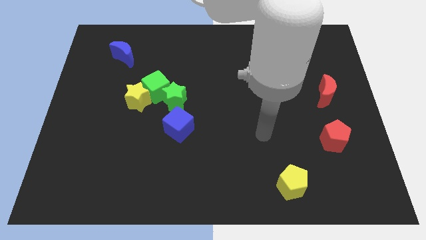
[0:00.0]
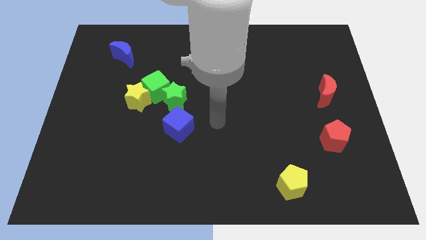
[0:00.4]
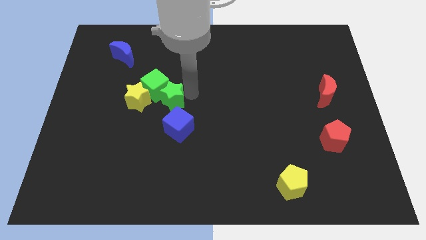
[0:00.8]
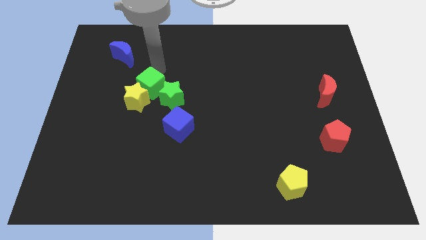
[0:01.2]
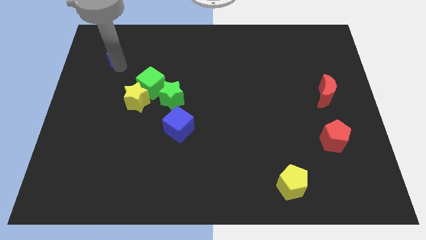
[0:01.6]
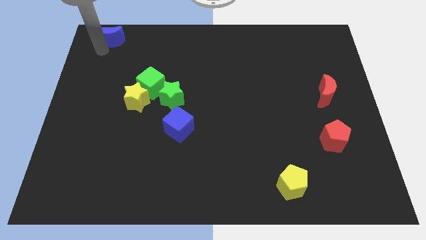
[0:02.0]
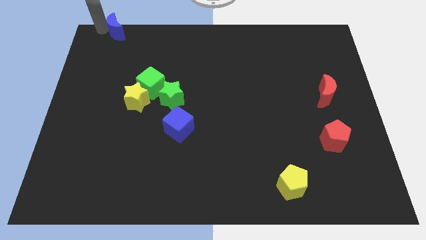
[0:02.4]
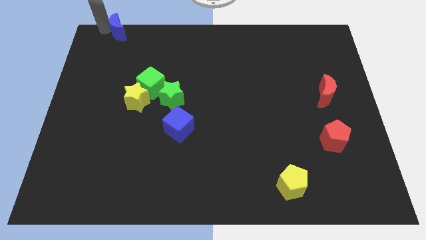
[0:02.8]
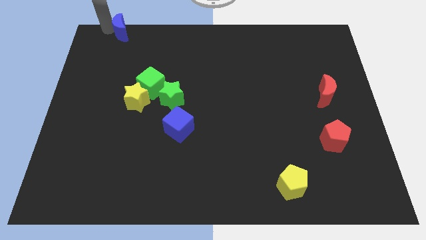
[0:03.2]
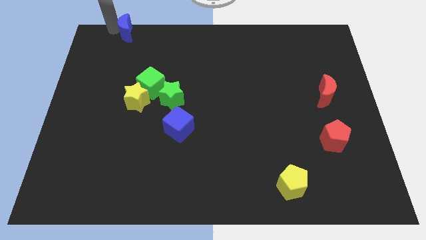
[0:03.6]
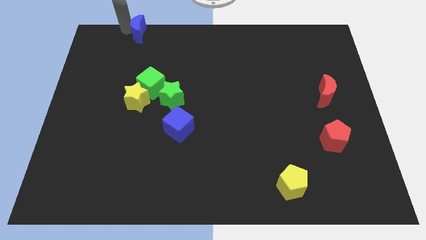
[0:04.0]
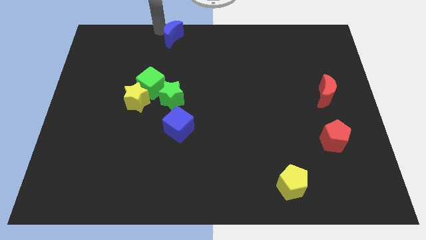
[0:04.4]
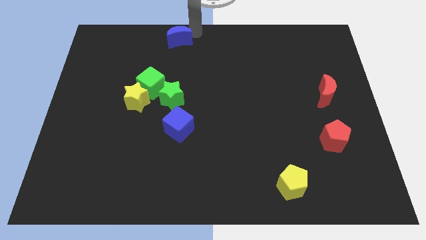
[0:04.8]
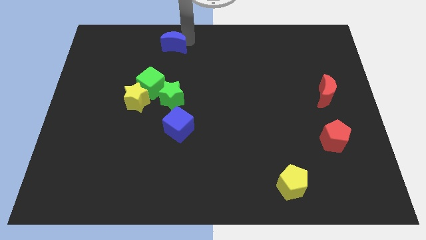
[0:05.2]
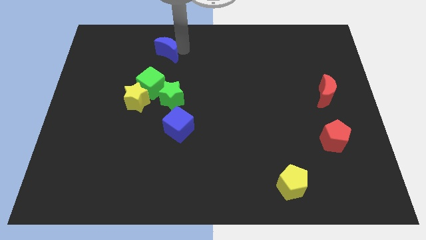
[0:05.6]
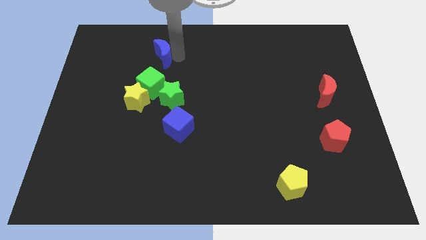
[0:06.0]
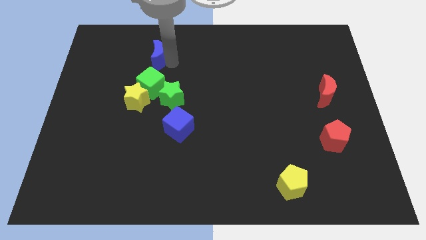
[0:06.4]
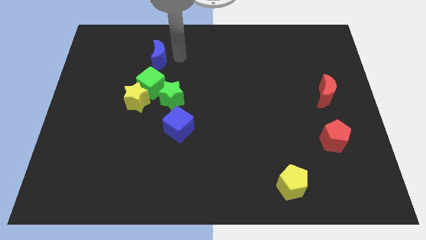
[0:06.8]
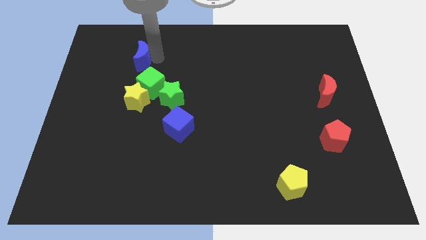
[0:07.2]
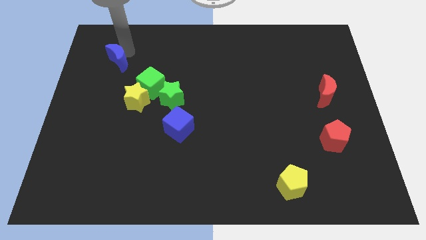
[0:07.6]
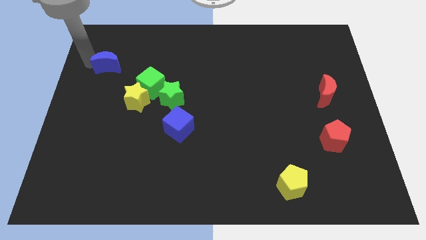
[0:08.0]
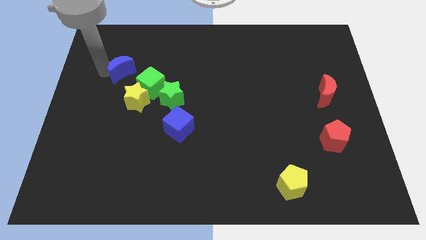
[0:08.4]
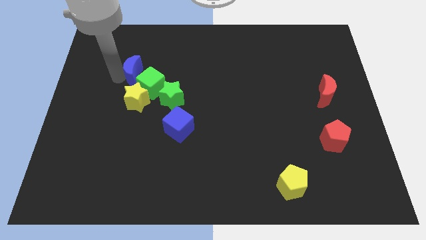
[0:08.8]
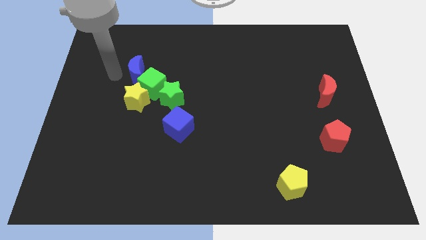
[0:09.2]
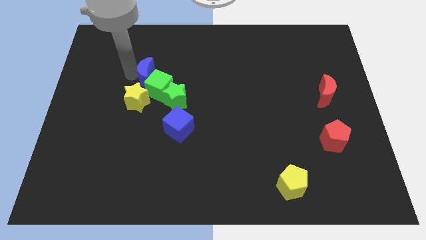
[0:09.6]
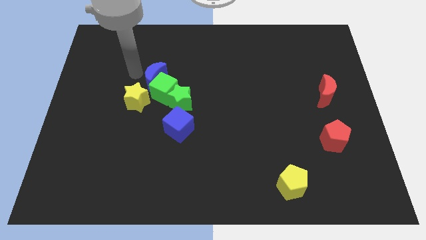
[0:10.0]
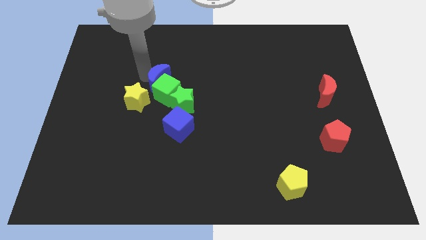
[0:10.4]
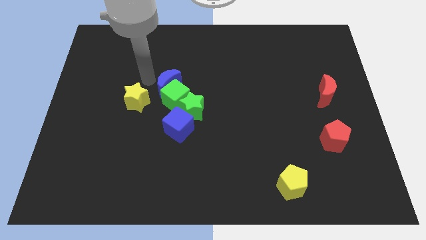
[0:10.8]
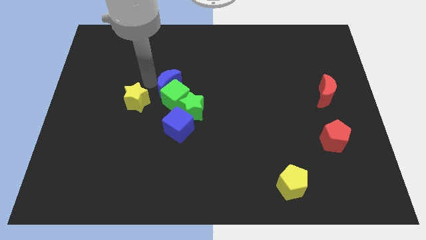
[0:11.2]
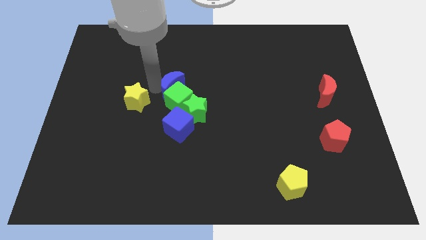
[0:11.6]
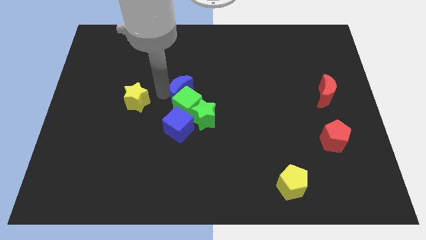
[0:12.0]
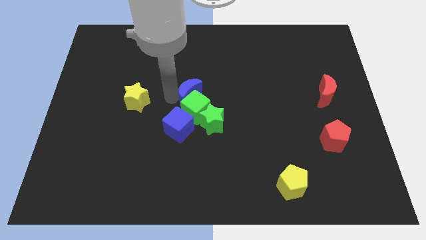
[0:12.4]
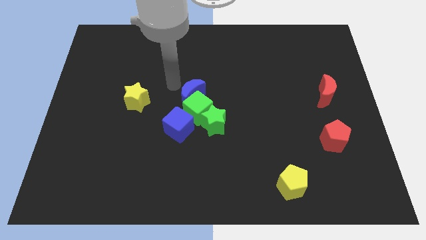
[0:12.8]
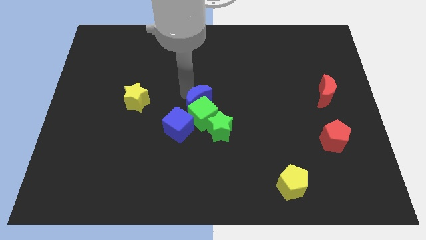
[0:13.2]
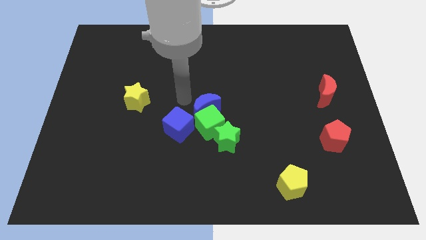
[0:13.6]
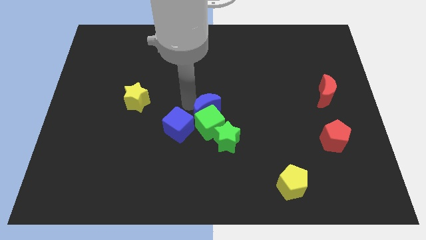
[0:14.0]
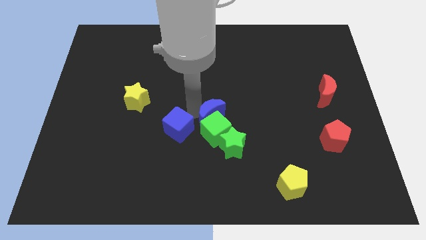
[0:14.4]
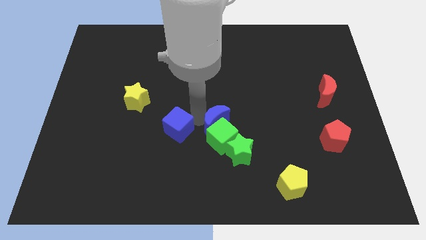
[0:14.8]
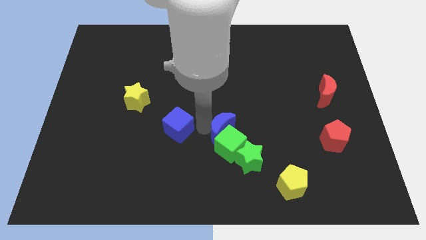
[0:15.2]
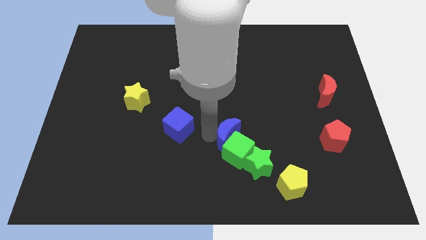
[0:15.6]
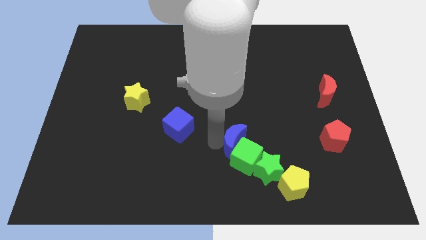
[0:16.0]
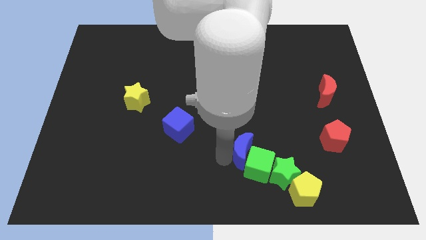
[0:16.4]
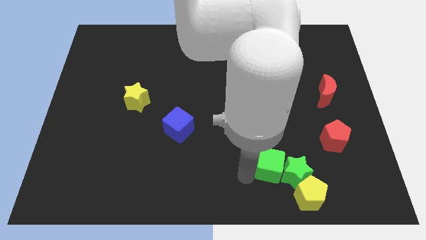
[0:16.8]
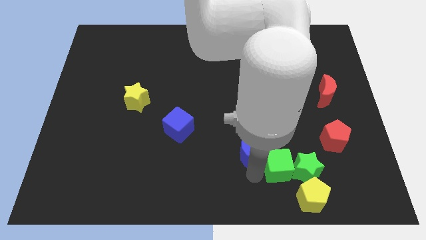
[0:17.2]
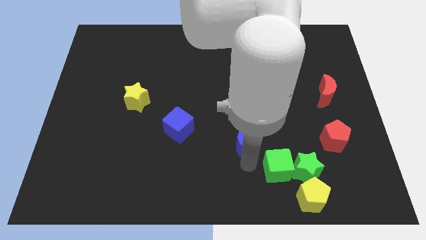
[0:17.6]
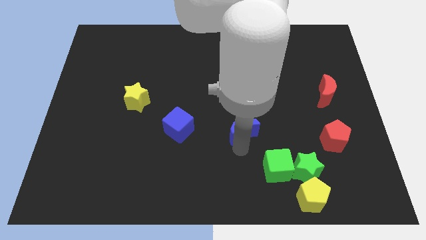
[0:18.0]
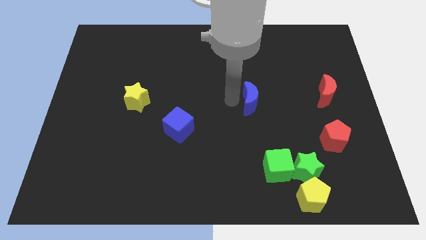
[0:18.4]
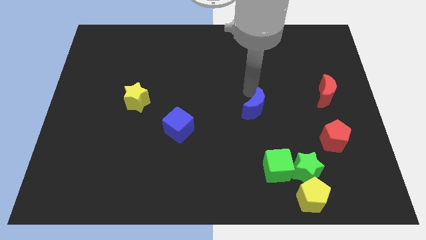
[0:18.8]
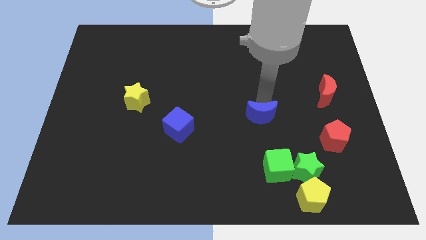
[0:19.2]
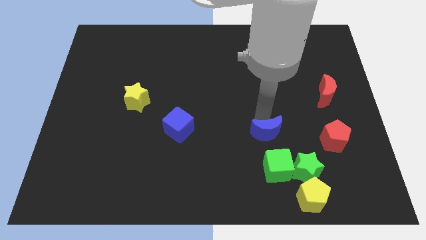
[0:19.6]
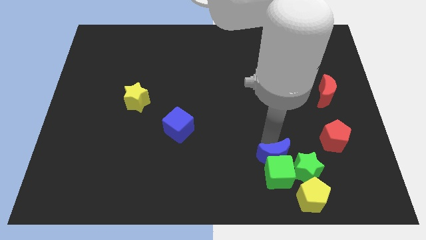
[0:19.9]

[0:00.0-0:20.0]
put the blue moon to the top left of the yellow pentagon

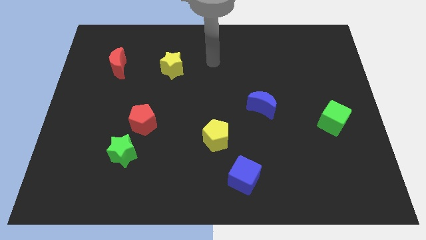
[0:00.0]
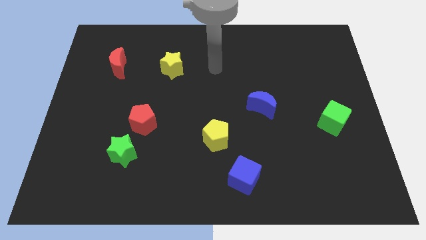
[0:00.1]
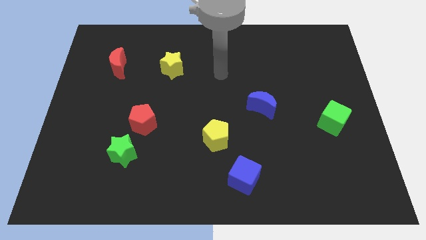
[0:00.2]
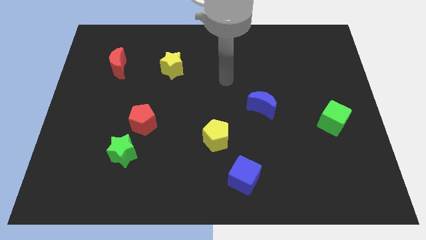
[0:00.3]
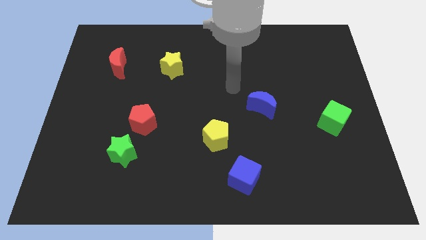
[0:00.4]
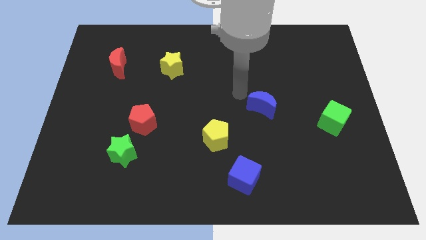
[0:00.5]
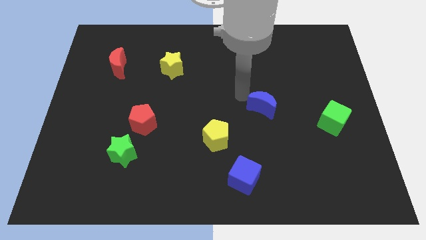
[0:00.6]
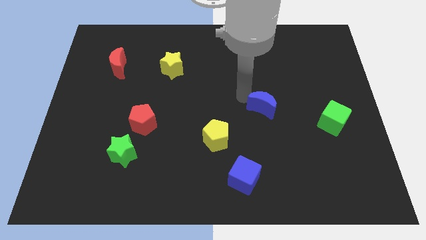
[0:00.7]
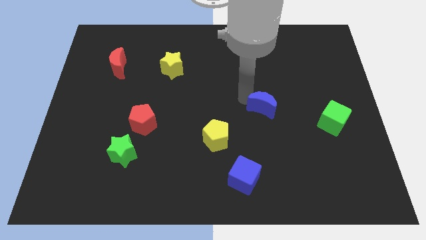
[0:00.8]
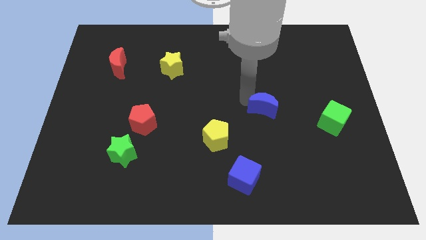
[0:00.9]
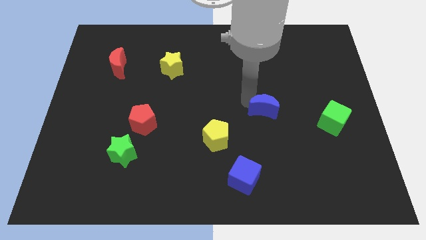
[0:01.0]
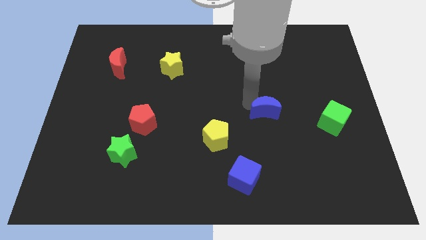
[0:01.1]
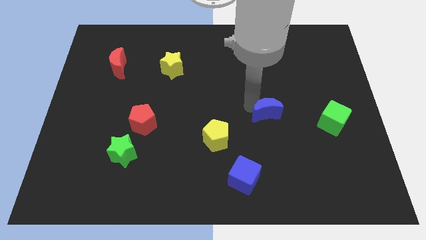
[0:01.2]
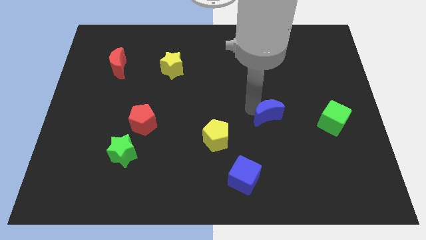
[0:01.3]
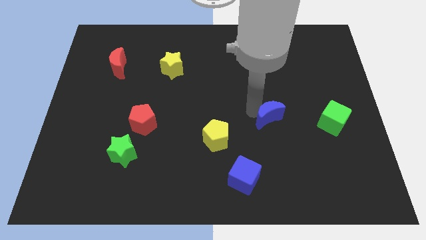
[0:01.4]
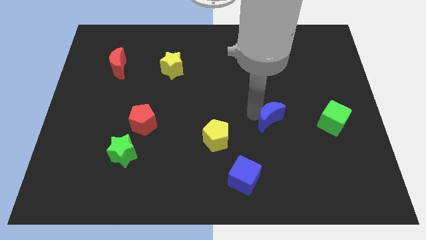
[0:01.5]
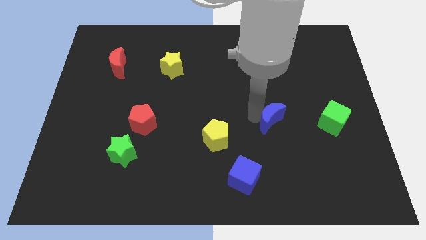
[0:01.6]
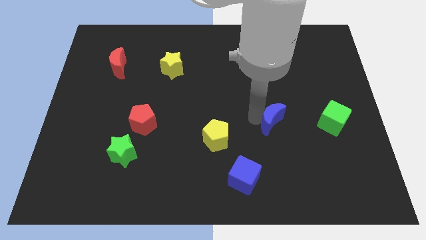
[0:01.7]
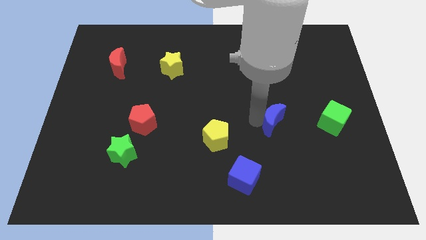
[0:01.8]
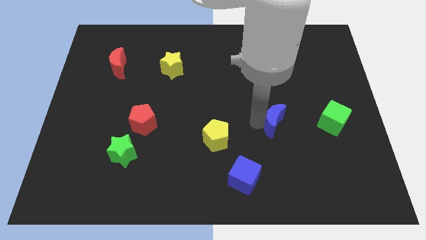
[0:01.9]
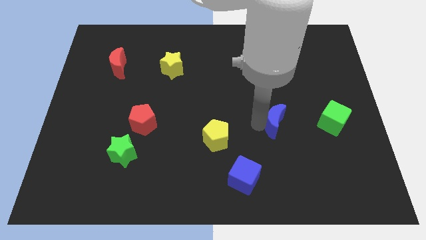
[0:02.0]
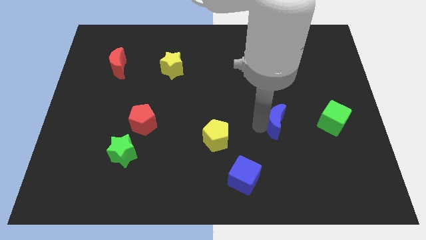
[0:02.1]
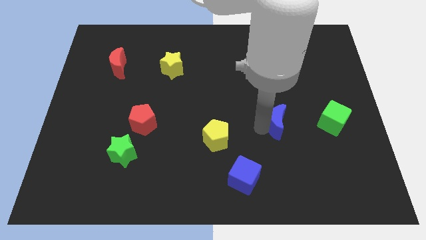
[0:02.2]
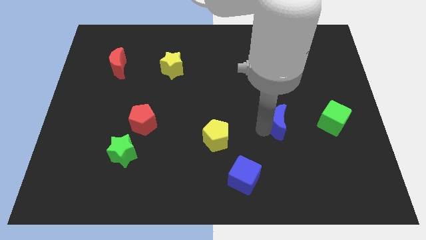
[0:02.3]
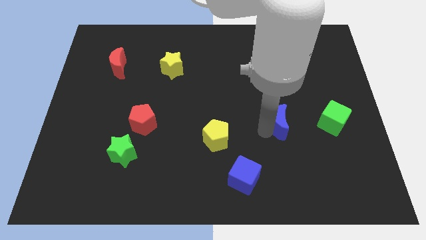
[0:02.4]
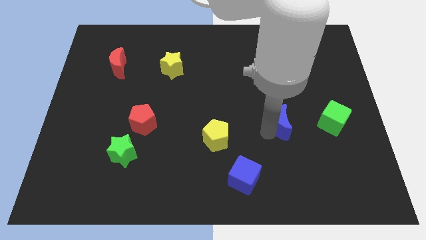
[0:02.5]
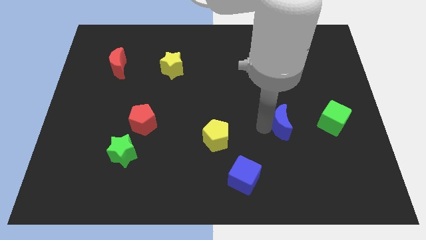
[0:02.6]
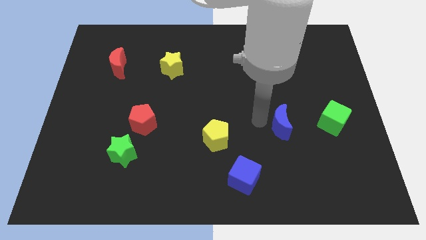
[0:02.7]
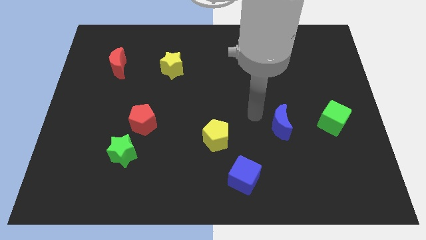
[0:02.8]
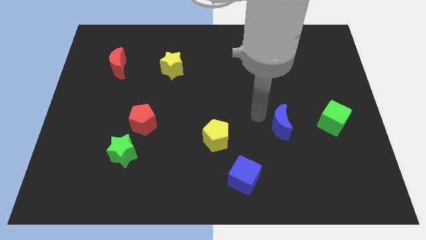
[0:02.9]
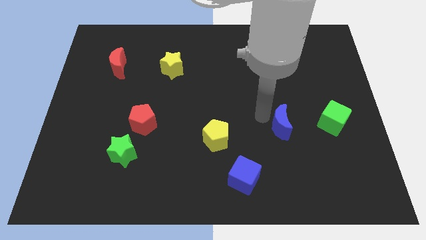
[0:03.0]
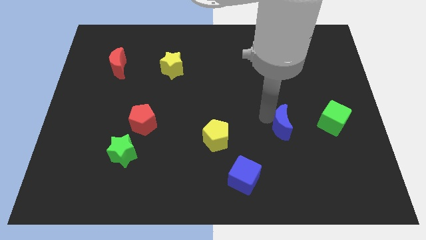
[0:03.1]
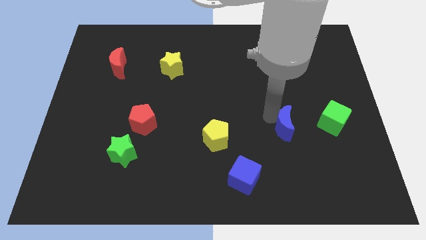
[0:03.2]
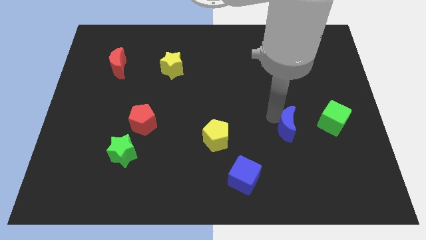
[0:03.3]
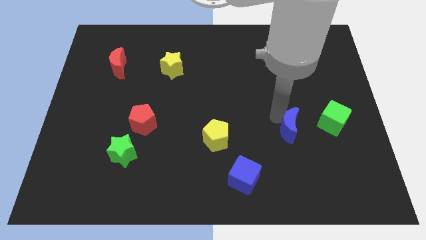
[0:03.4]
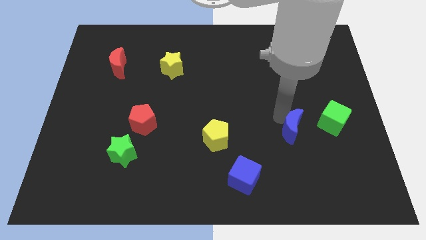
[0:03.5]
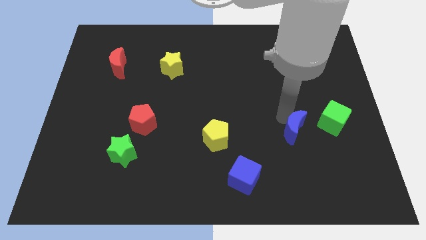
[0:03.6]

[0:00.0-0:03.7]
push the blue moon to the bottom left side of the green cube
